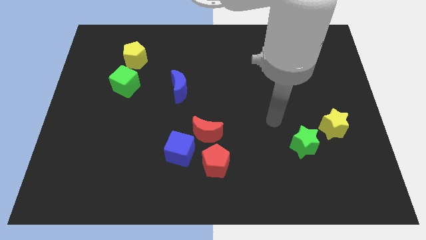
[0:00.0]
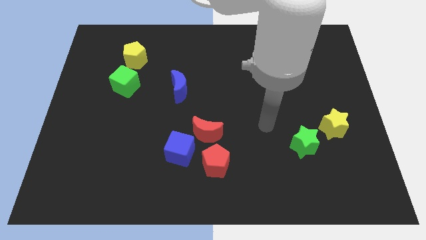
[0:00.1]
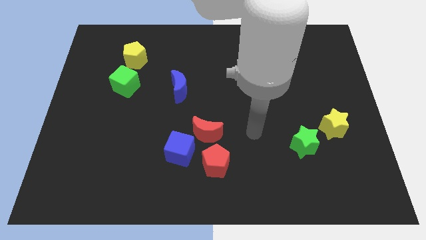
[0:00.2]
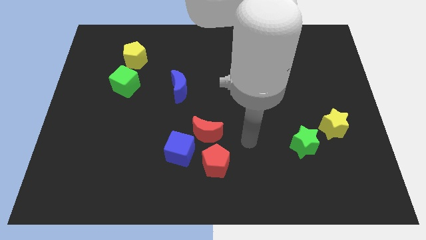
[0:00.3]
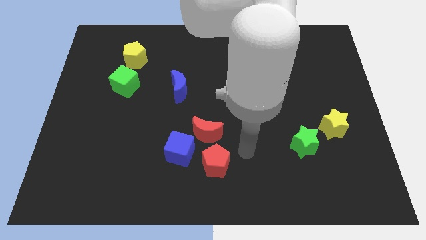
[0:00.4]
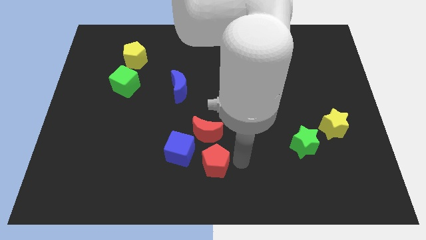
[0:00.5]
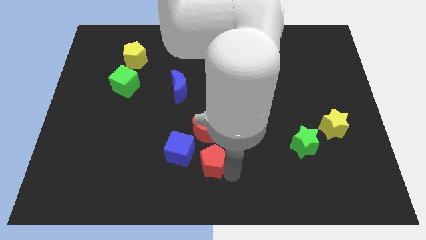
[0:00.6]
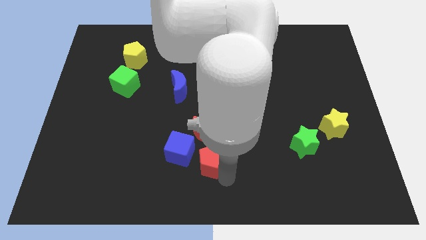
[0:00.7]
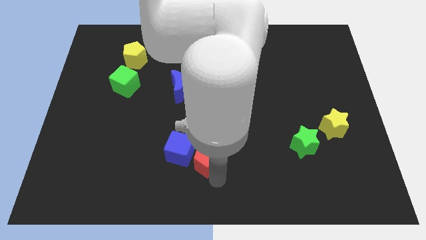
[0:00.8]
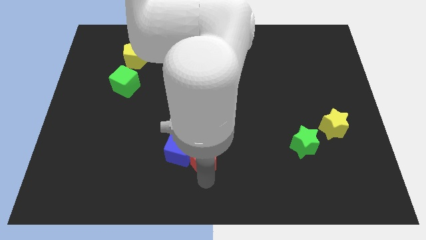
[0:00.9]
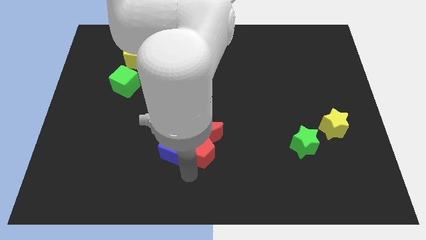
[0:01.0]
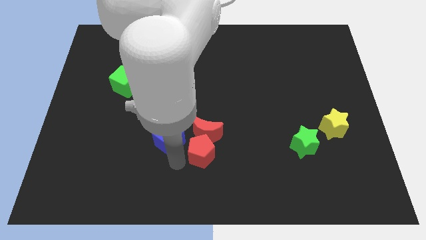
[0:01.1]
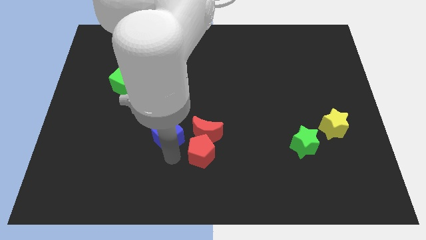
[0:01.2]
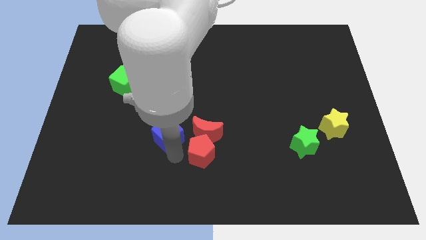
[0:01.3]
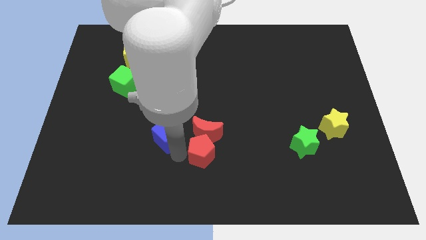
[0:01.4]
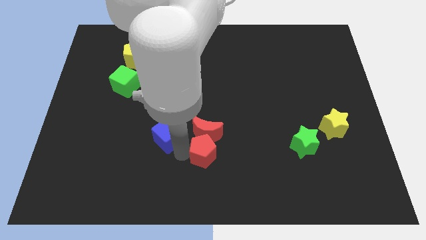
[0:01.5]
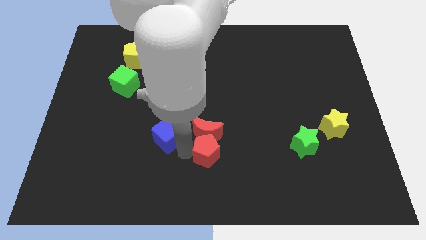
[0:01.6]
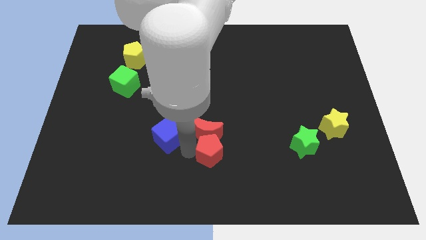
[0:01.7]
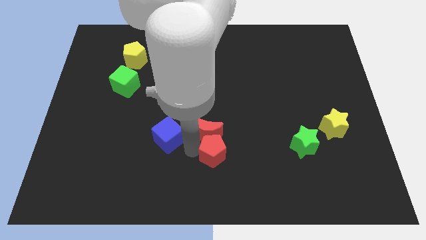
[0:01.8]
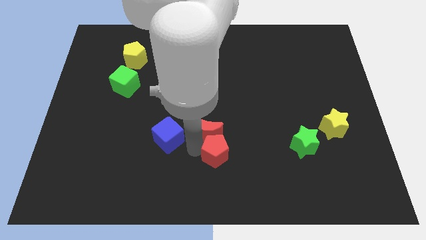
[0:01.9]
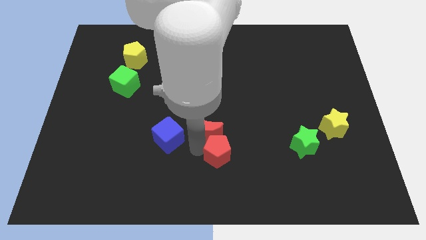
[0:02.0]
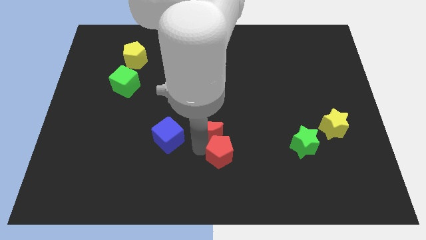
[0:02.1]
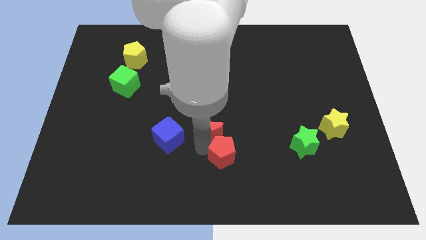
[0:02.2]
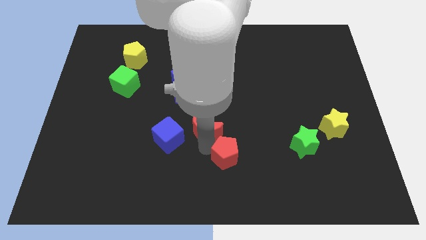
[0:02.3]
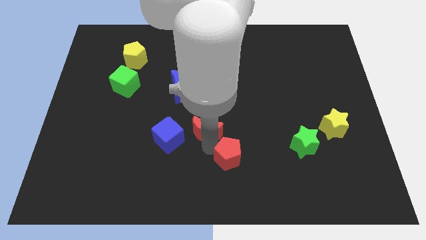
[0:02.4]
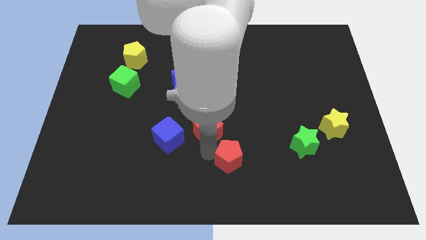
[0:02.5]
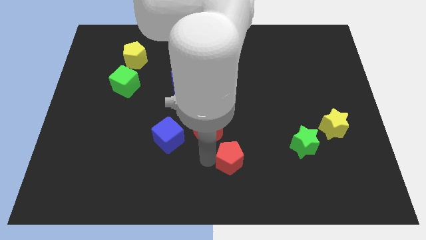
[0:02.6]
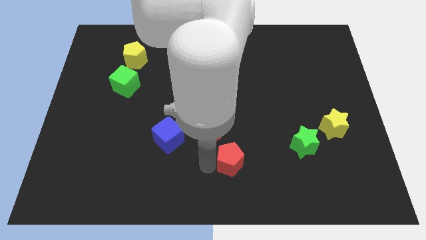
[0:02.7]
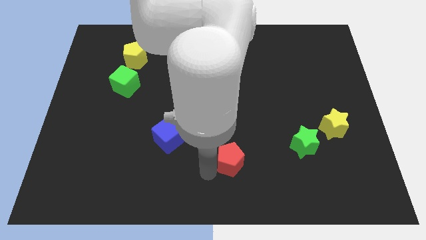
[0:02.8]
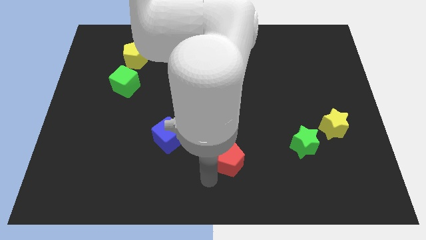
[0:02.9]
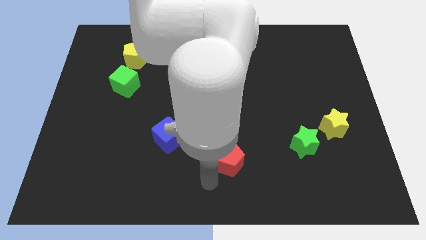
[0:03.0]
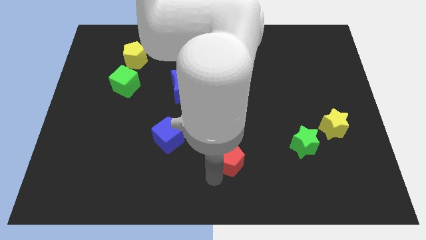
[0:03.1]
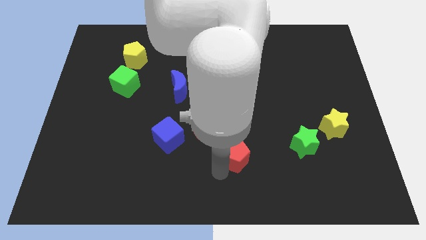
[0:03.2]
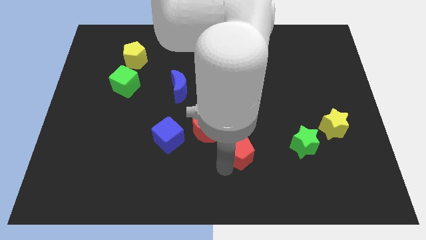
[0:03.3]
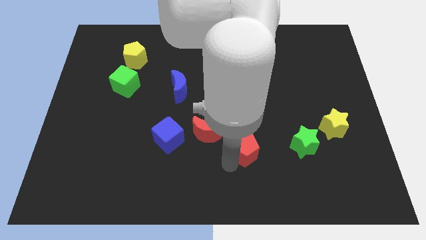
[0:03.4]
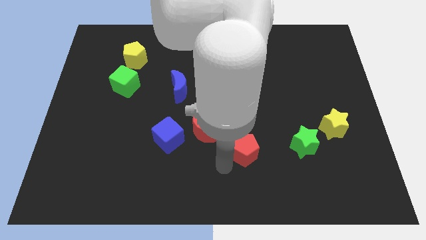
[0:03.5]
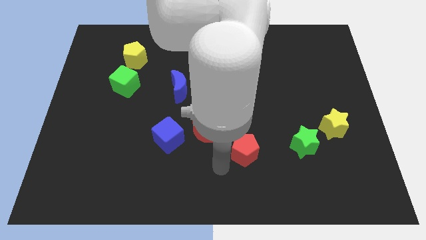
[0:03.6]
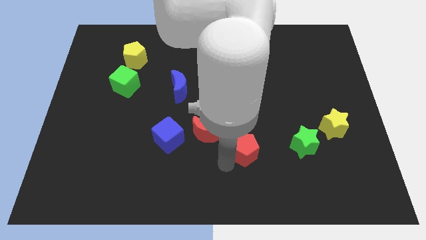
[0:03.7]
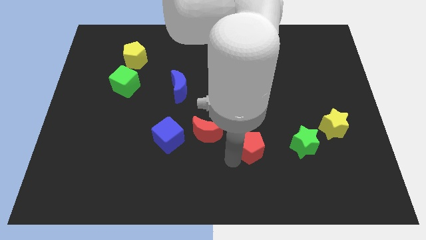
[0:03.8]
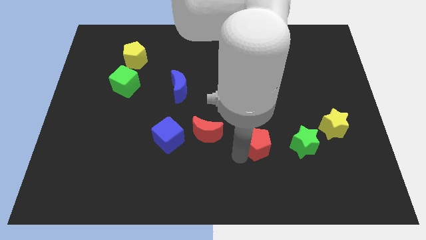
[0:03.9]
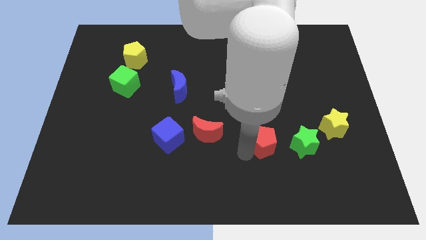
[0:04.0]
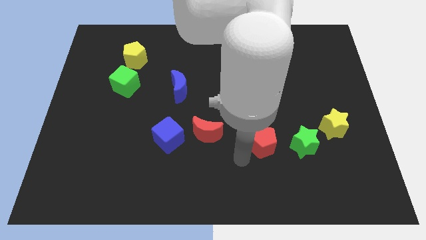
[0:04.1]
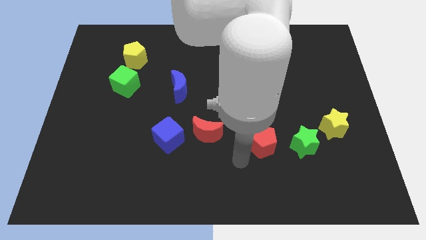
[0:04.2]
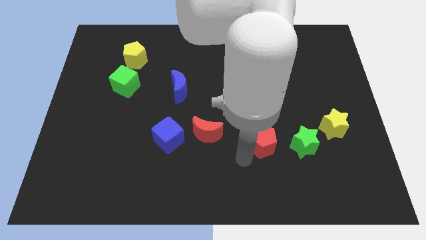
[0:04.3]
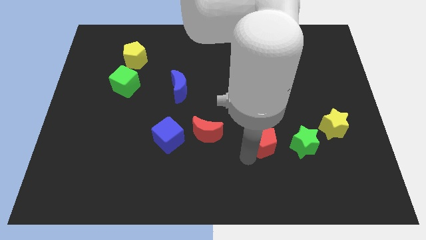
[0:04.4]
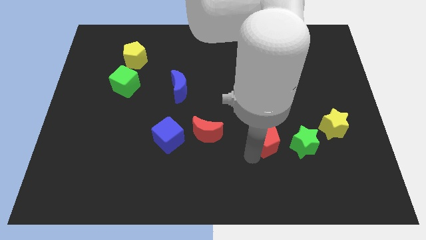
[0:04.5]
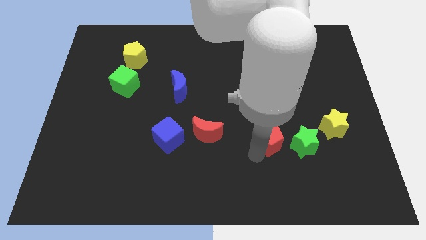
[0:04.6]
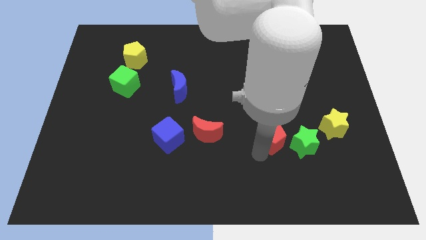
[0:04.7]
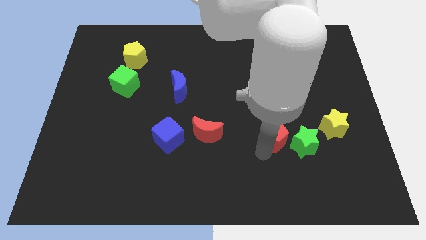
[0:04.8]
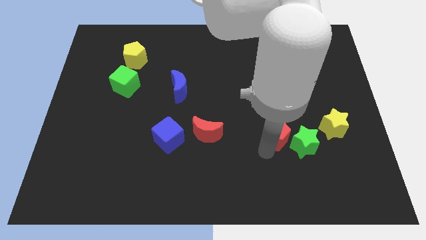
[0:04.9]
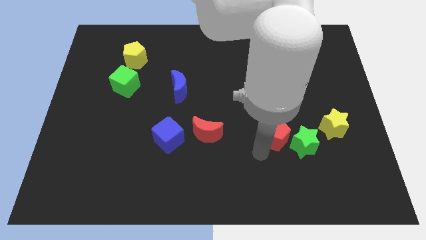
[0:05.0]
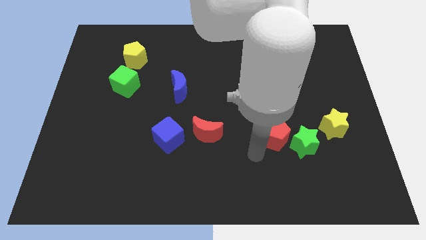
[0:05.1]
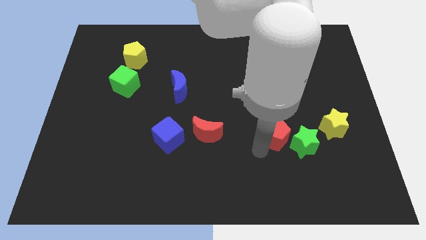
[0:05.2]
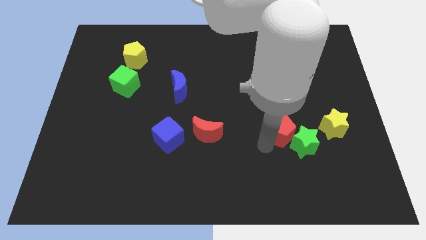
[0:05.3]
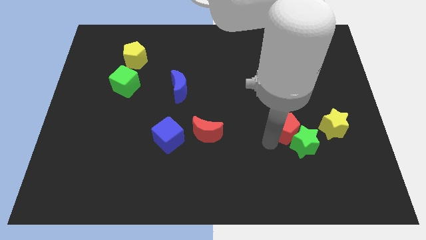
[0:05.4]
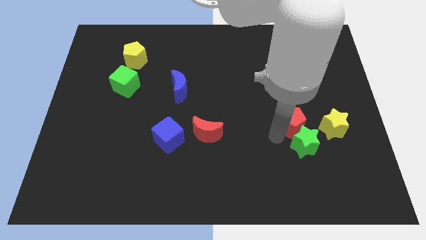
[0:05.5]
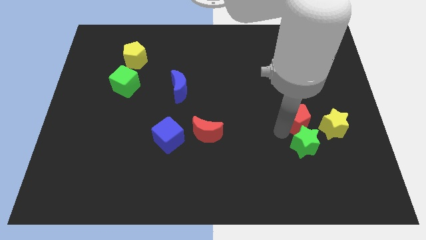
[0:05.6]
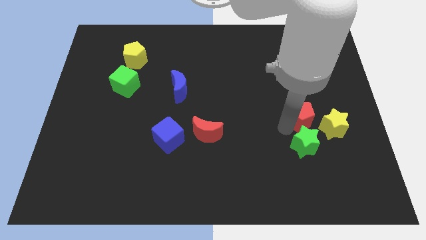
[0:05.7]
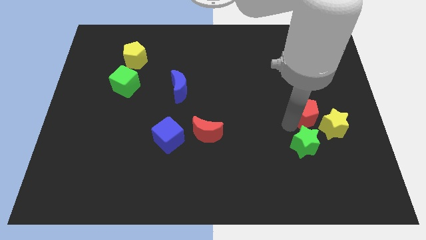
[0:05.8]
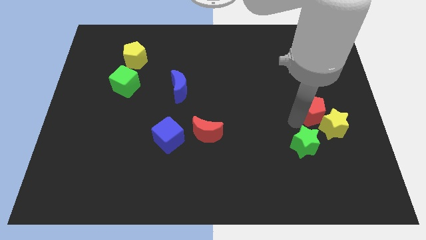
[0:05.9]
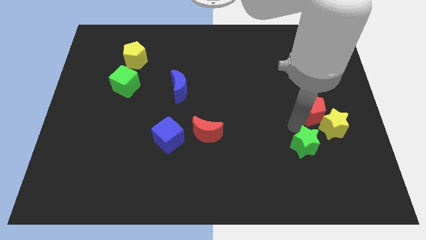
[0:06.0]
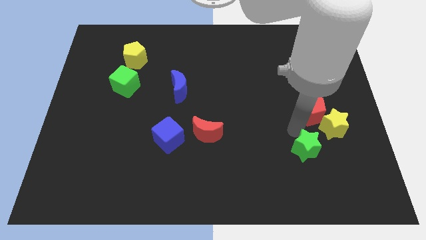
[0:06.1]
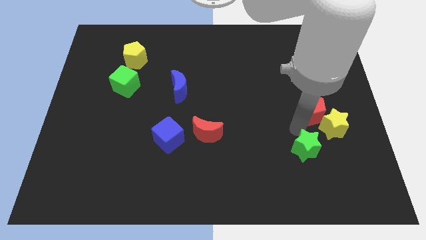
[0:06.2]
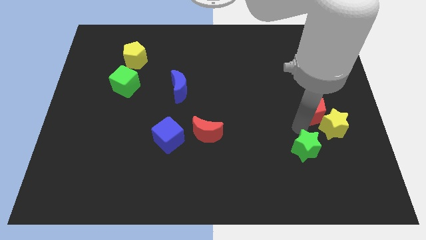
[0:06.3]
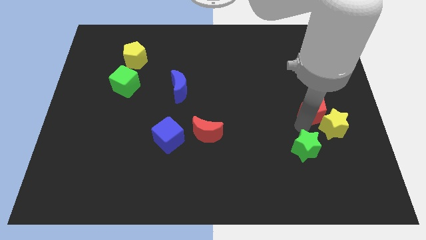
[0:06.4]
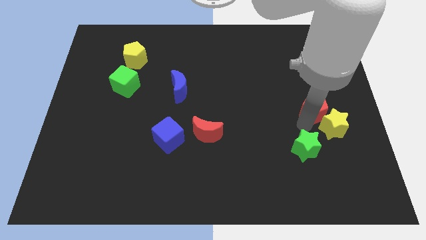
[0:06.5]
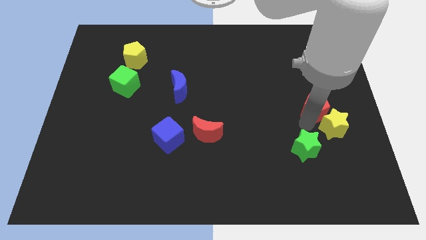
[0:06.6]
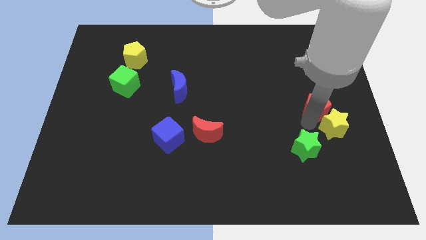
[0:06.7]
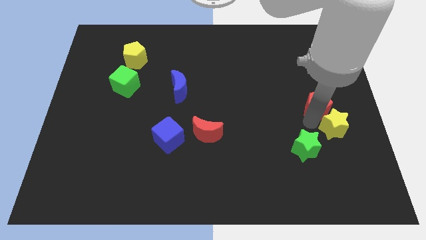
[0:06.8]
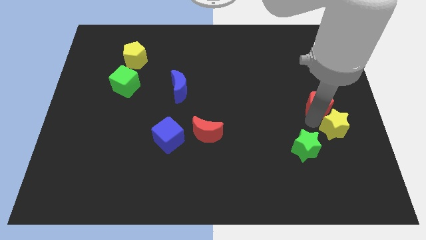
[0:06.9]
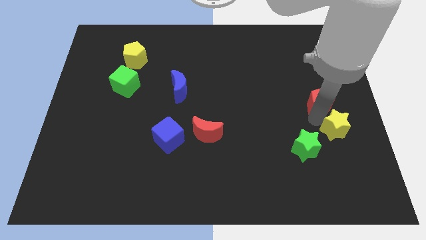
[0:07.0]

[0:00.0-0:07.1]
put the red pentagon to the right side of the board
